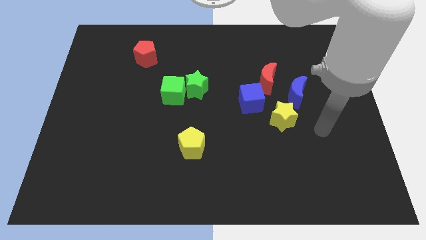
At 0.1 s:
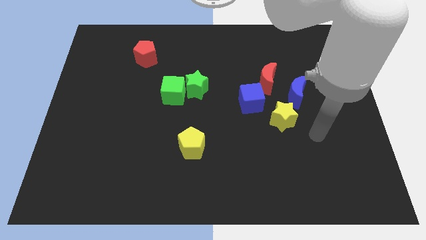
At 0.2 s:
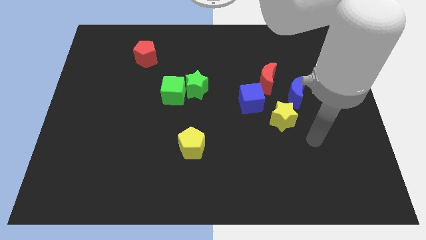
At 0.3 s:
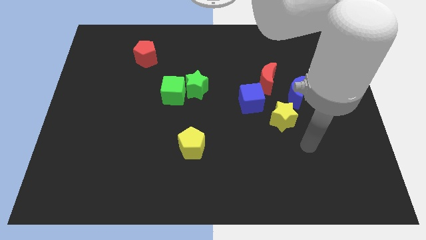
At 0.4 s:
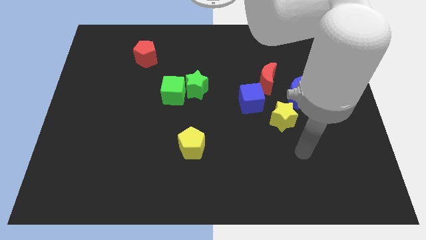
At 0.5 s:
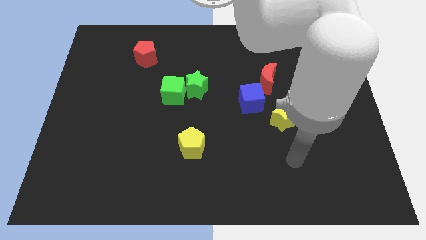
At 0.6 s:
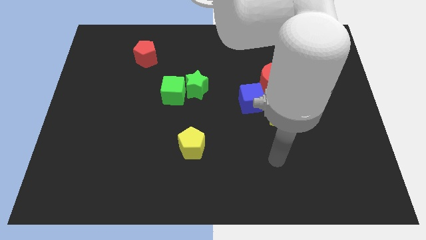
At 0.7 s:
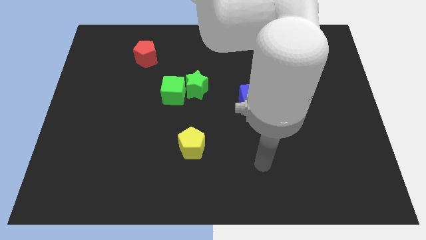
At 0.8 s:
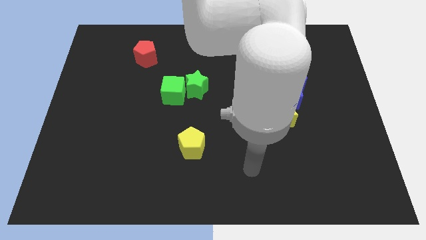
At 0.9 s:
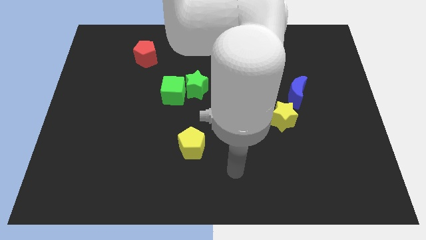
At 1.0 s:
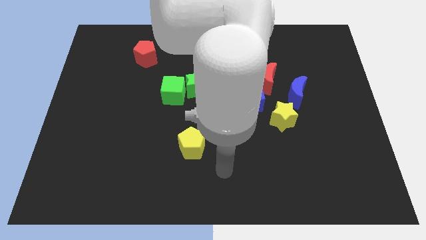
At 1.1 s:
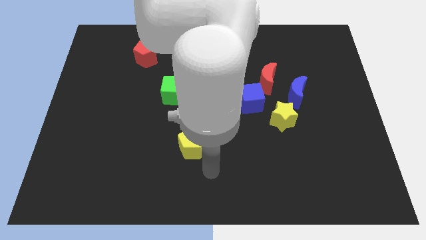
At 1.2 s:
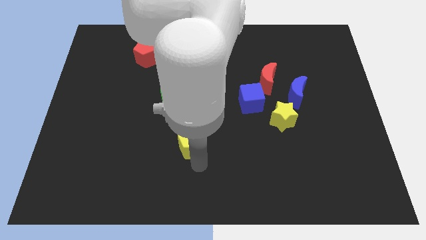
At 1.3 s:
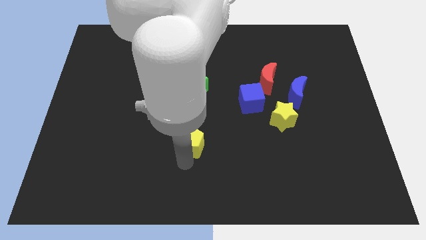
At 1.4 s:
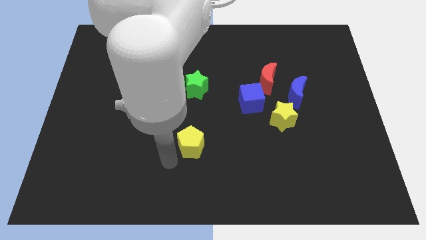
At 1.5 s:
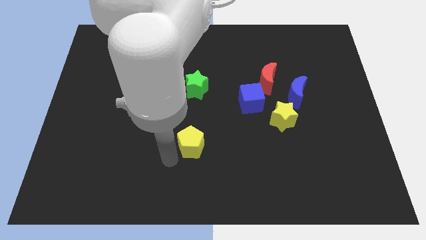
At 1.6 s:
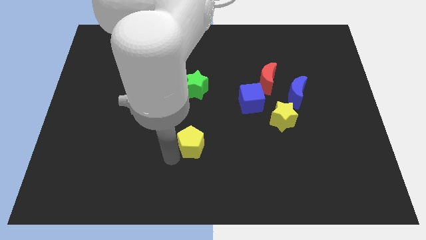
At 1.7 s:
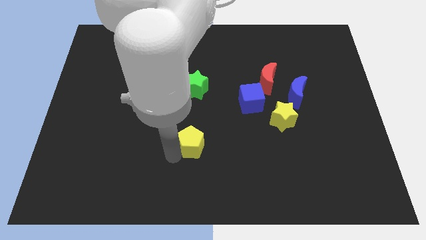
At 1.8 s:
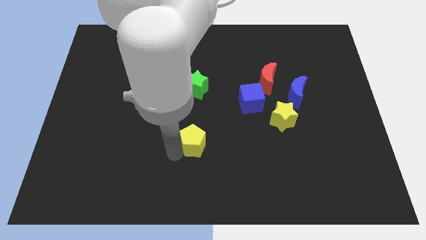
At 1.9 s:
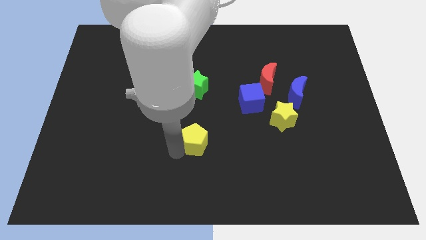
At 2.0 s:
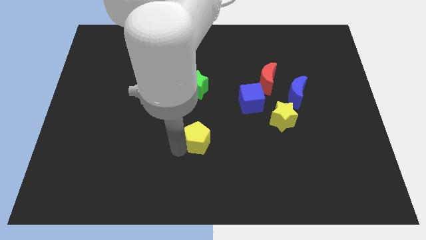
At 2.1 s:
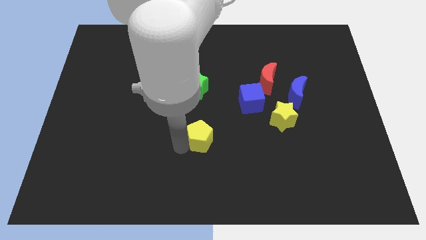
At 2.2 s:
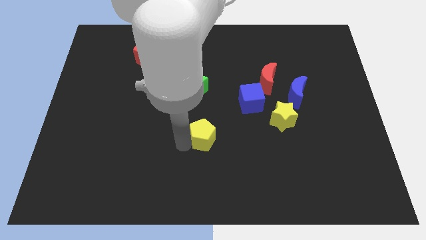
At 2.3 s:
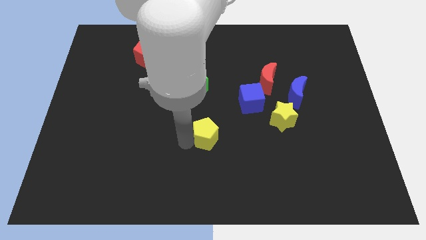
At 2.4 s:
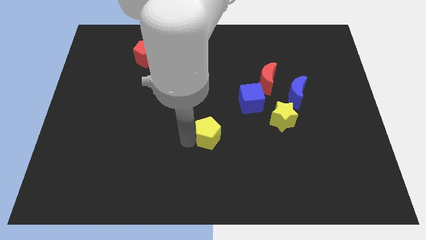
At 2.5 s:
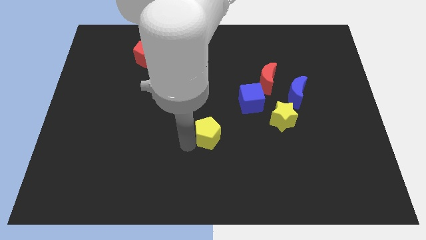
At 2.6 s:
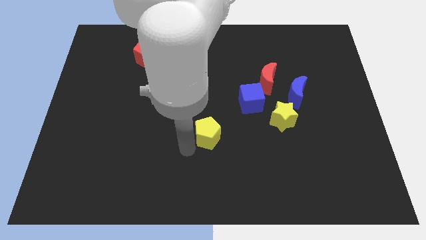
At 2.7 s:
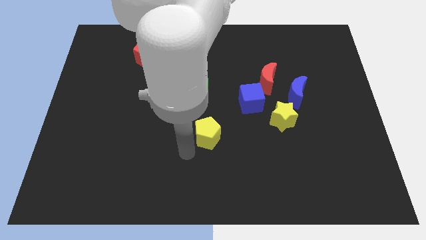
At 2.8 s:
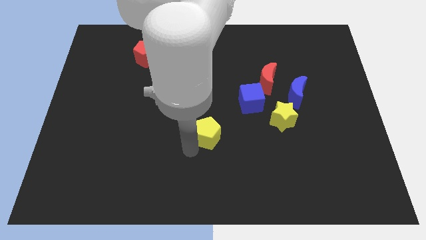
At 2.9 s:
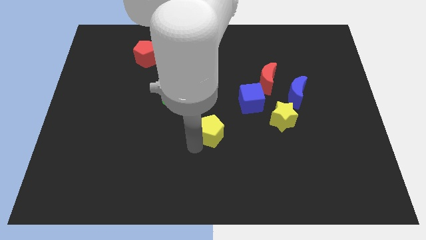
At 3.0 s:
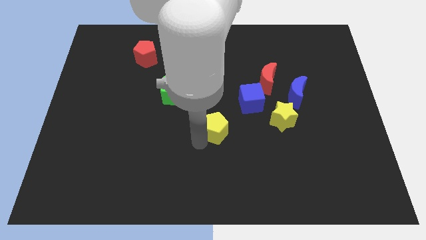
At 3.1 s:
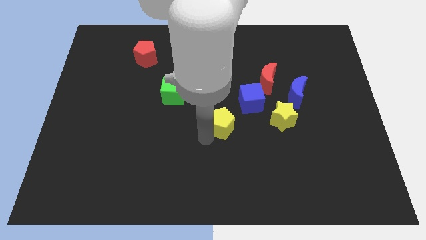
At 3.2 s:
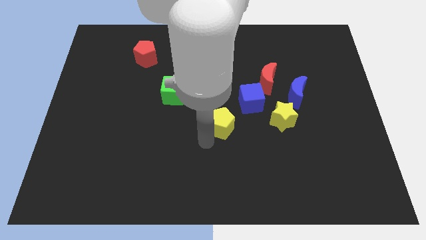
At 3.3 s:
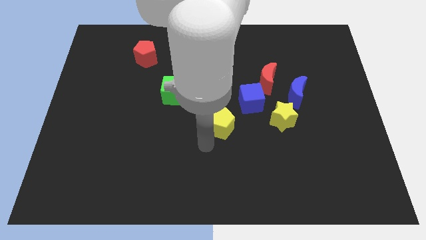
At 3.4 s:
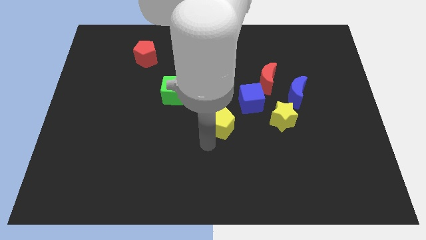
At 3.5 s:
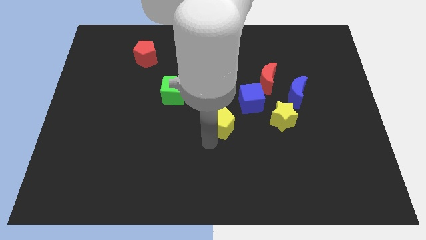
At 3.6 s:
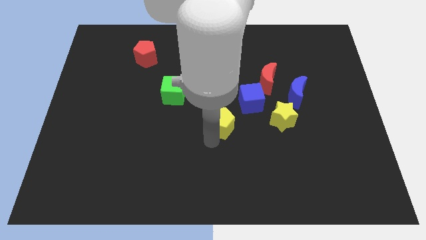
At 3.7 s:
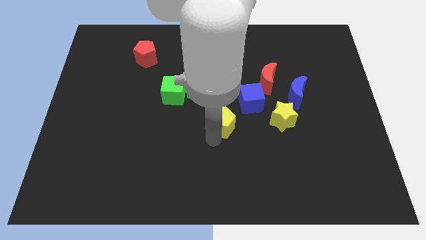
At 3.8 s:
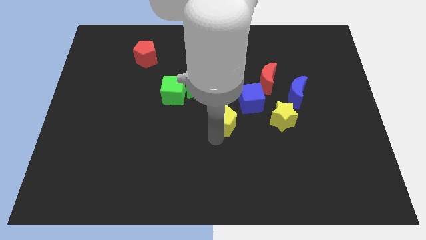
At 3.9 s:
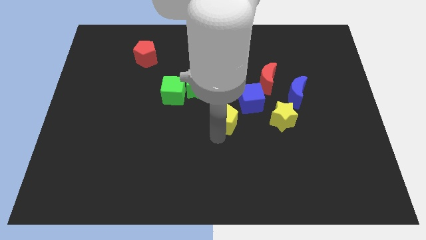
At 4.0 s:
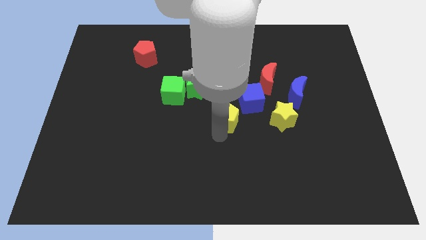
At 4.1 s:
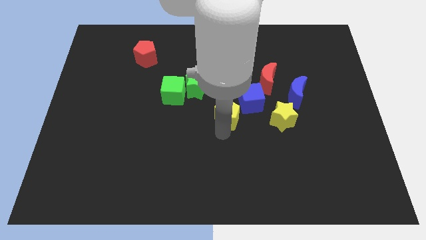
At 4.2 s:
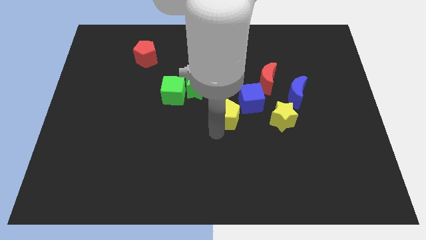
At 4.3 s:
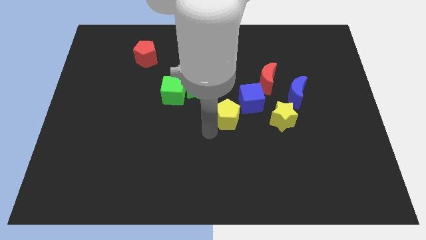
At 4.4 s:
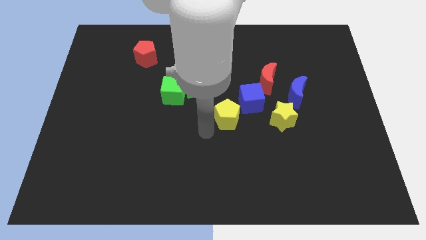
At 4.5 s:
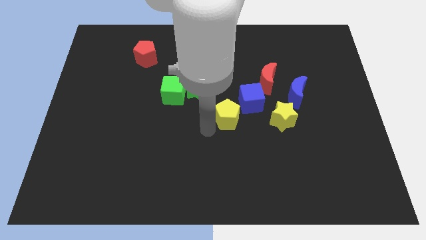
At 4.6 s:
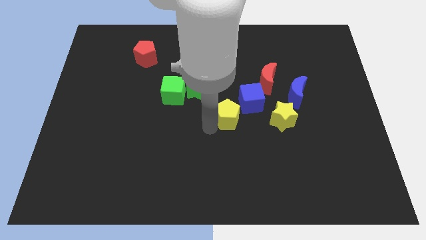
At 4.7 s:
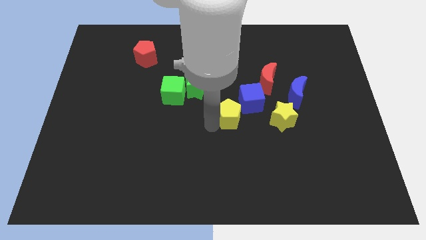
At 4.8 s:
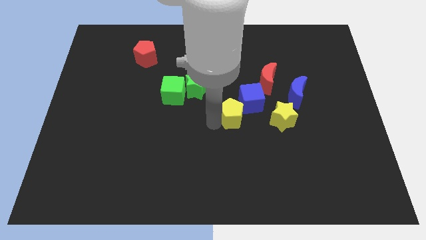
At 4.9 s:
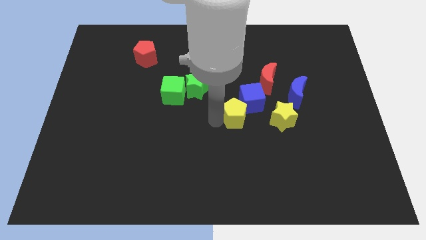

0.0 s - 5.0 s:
push the yellow pentagon towards the blue cube

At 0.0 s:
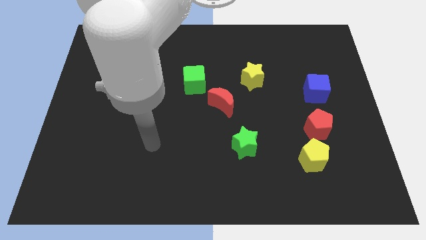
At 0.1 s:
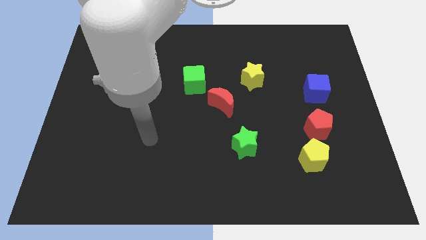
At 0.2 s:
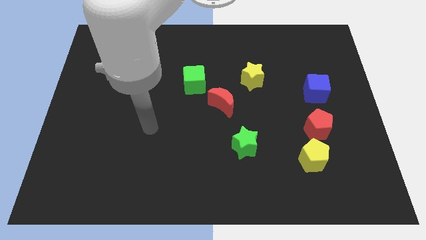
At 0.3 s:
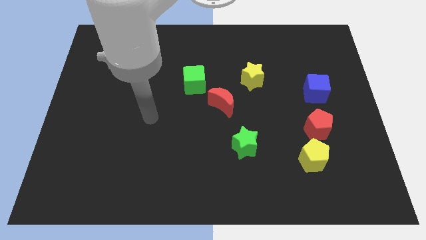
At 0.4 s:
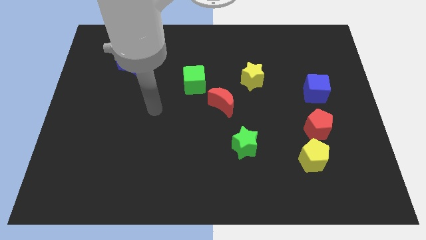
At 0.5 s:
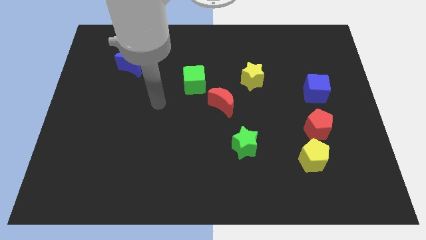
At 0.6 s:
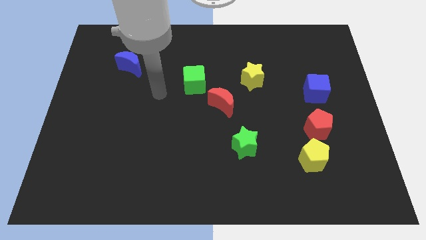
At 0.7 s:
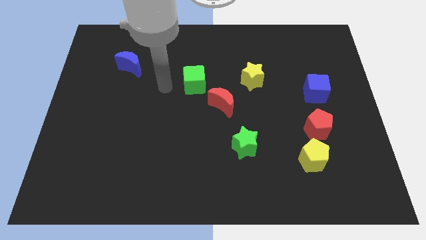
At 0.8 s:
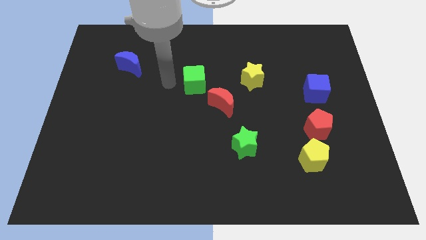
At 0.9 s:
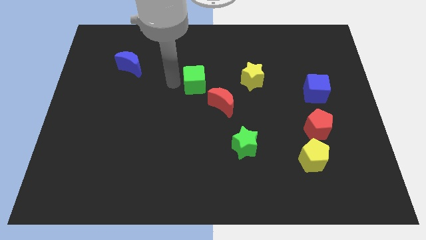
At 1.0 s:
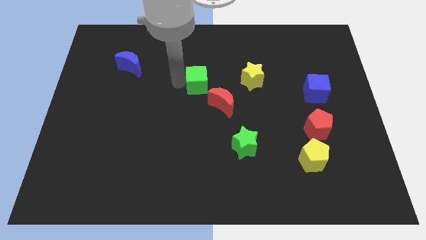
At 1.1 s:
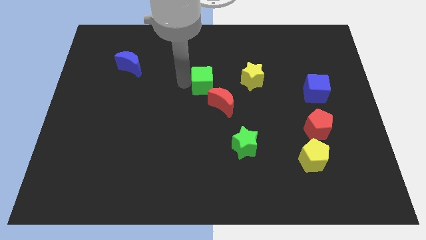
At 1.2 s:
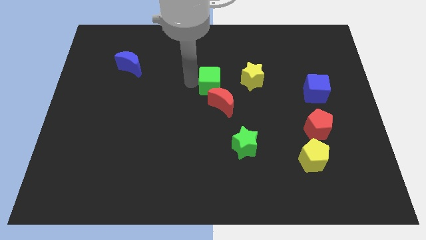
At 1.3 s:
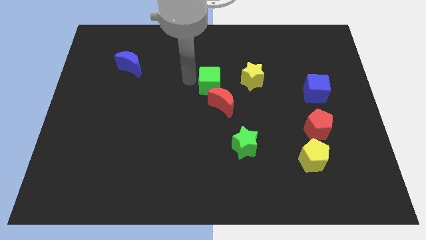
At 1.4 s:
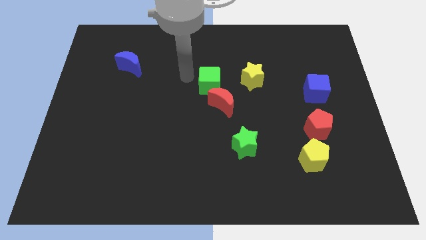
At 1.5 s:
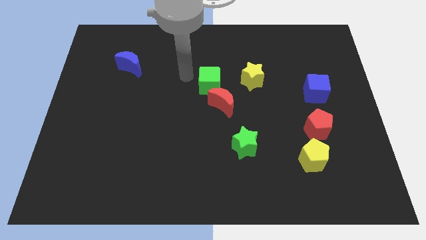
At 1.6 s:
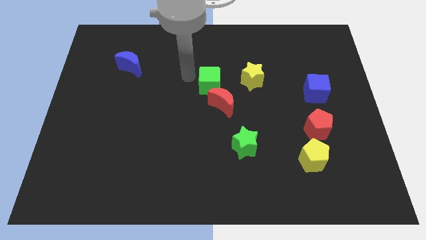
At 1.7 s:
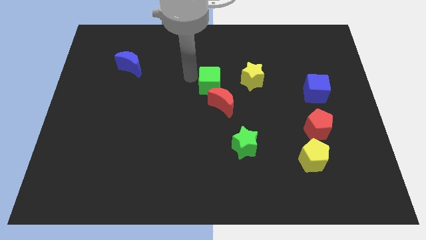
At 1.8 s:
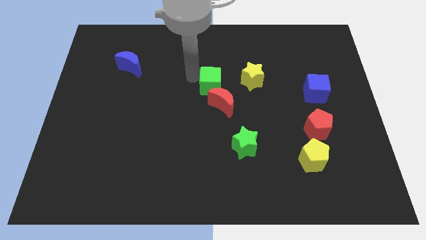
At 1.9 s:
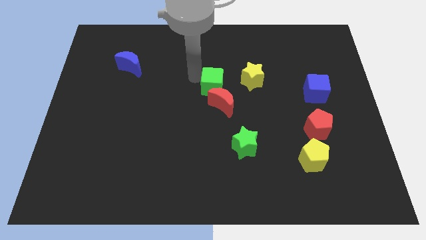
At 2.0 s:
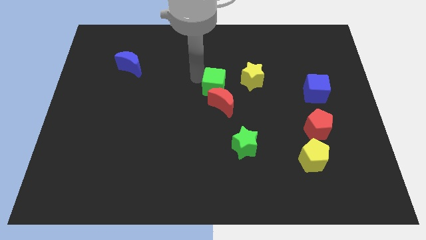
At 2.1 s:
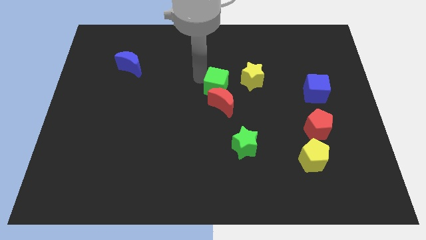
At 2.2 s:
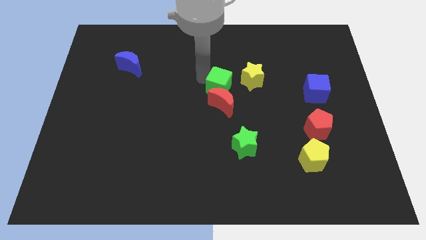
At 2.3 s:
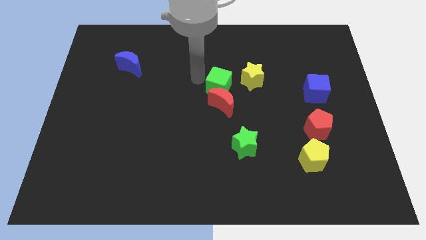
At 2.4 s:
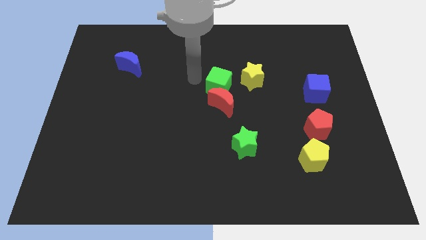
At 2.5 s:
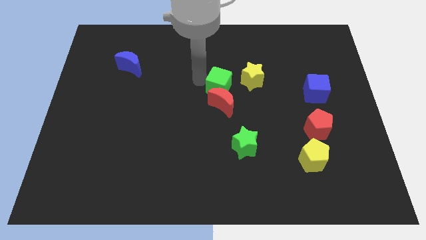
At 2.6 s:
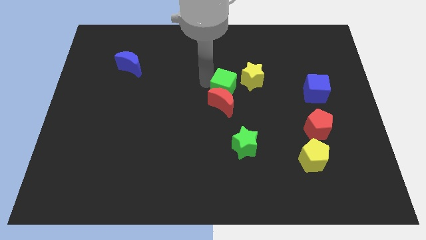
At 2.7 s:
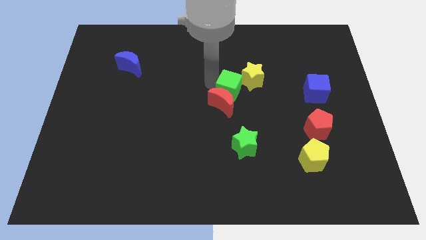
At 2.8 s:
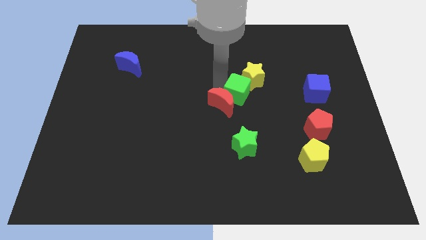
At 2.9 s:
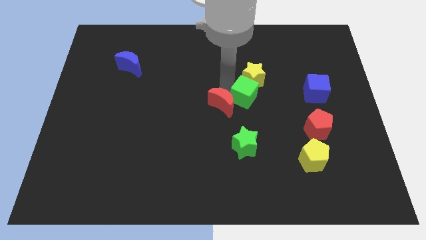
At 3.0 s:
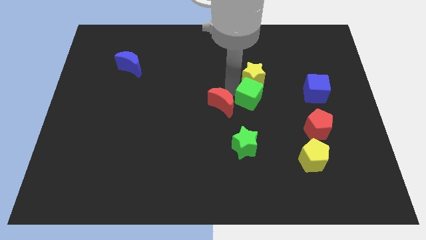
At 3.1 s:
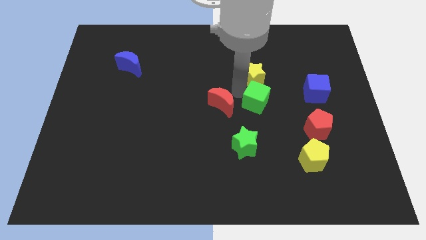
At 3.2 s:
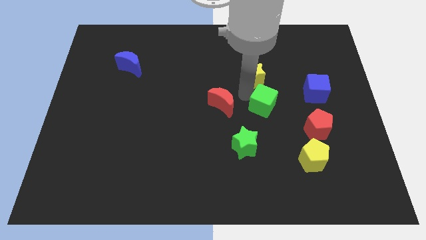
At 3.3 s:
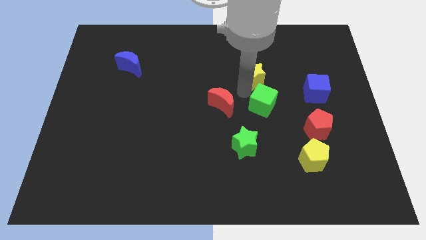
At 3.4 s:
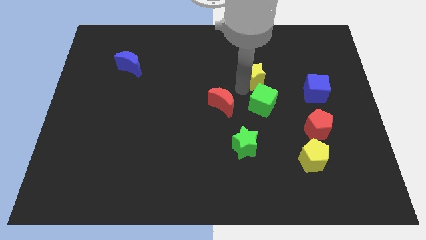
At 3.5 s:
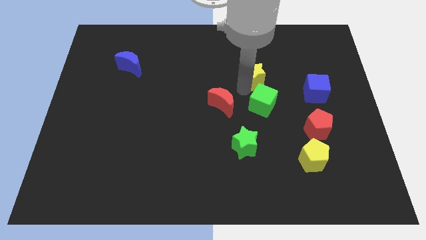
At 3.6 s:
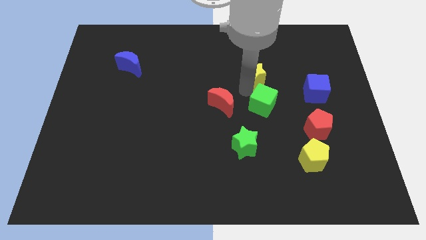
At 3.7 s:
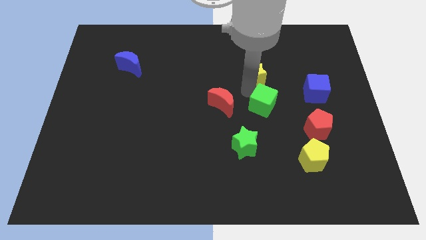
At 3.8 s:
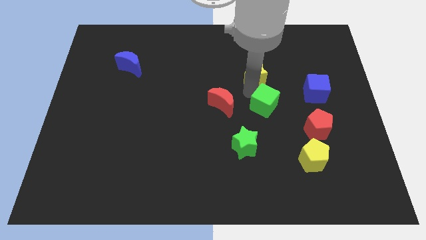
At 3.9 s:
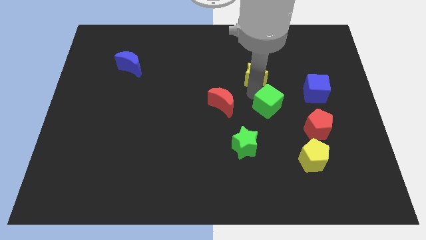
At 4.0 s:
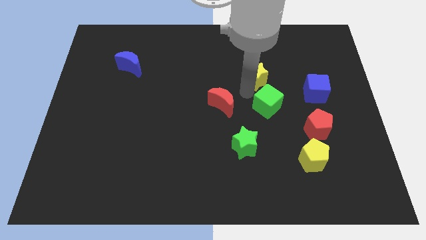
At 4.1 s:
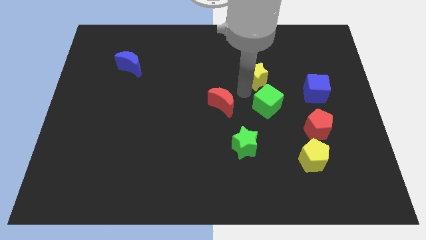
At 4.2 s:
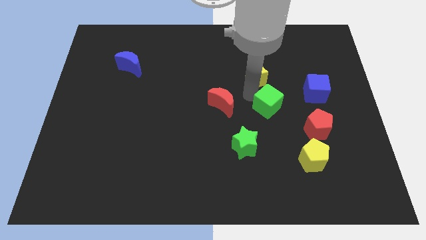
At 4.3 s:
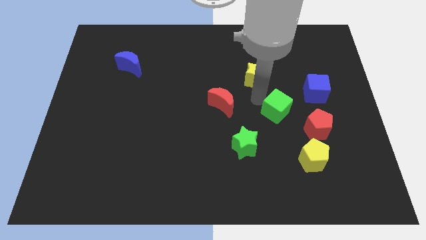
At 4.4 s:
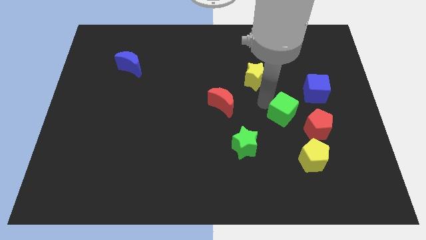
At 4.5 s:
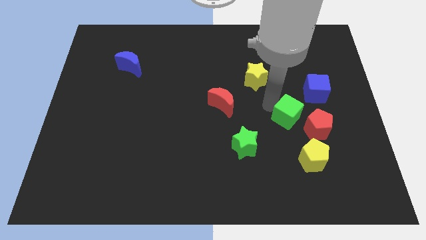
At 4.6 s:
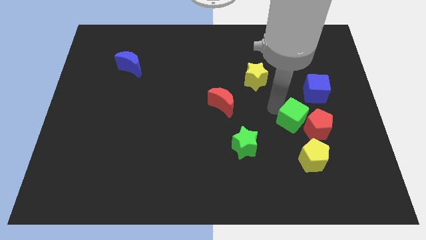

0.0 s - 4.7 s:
put the green cube close to the red pentagon
